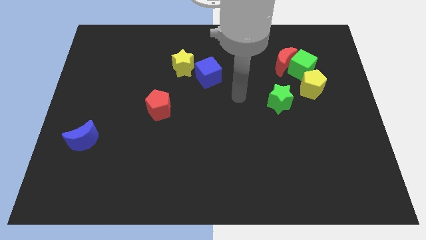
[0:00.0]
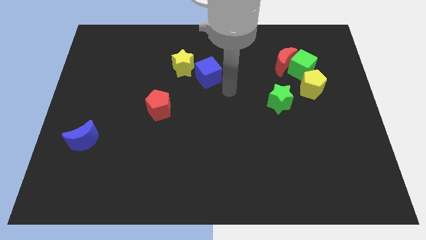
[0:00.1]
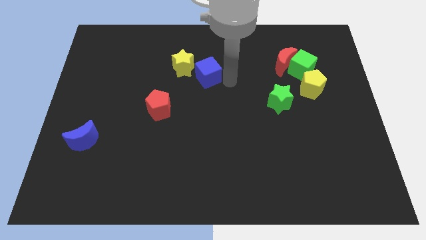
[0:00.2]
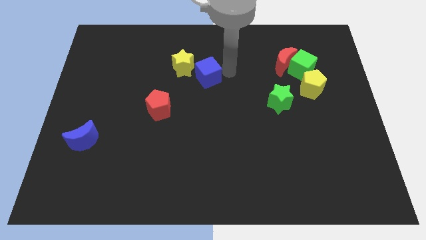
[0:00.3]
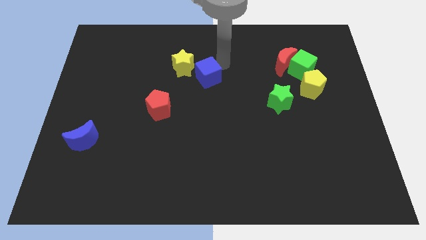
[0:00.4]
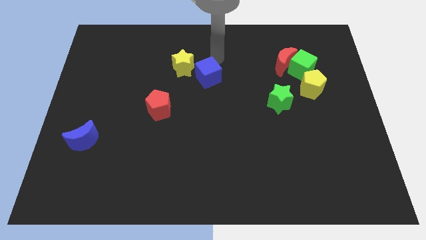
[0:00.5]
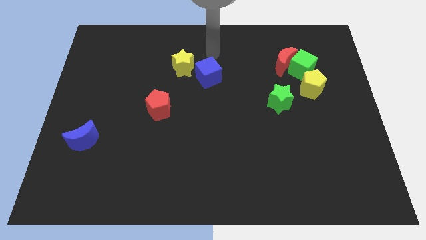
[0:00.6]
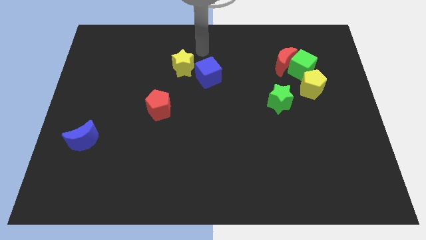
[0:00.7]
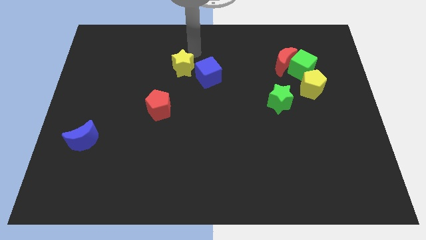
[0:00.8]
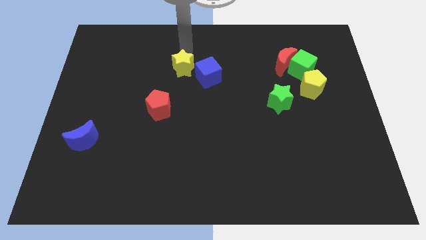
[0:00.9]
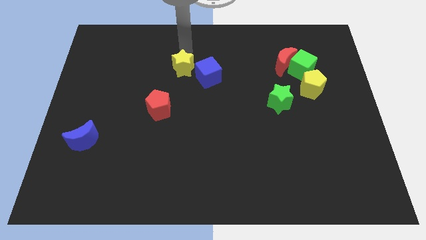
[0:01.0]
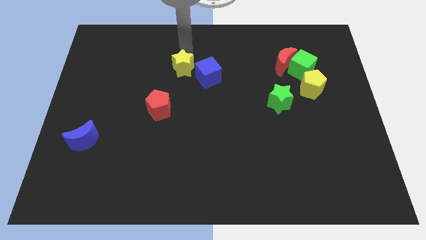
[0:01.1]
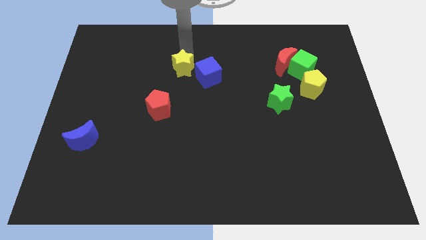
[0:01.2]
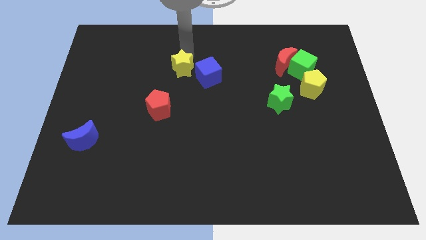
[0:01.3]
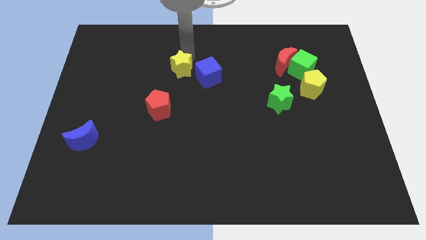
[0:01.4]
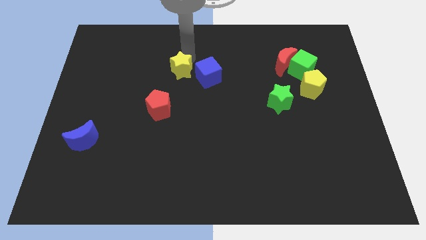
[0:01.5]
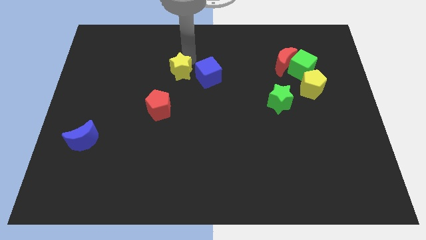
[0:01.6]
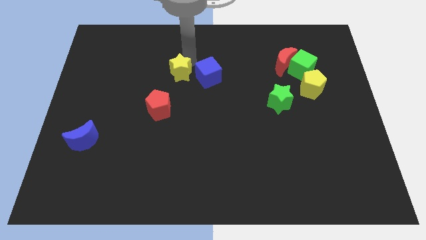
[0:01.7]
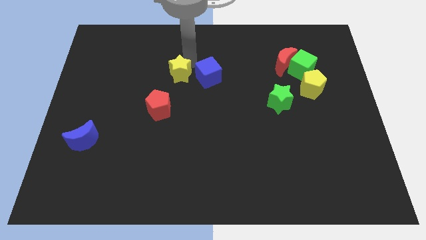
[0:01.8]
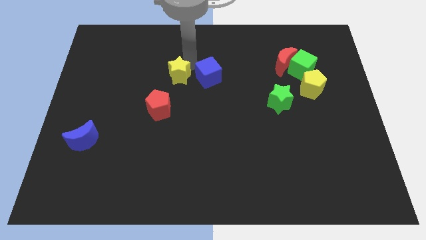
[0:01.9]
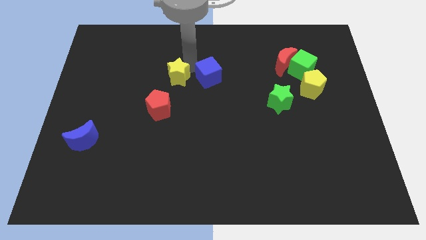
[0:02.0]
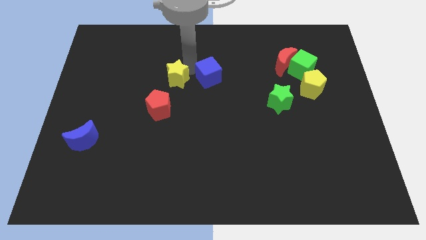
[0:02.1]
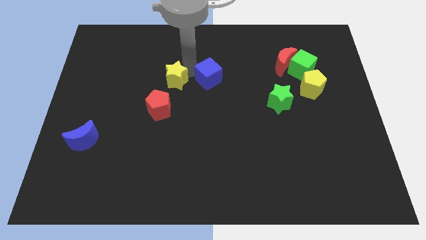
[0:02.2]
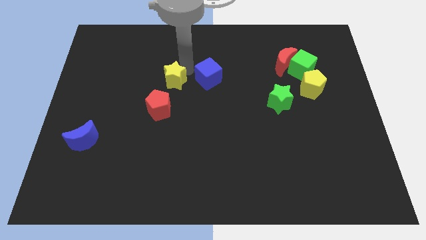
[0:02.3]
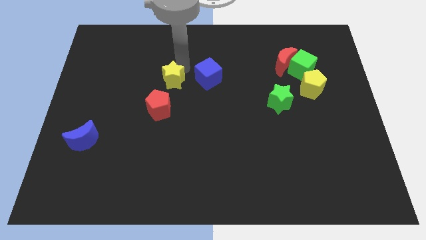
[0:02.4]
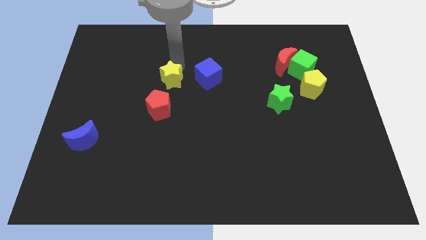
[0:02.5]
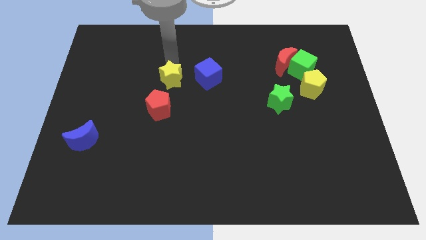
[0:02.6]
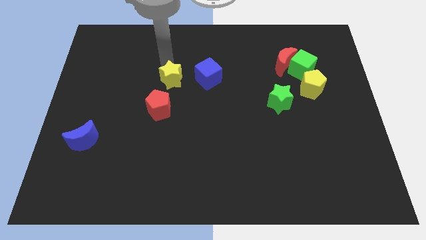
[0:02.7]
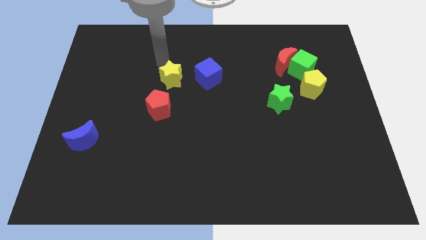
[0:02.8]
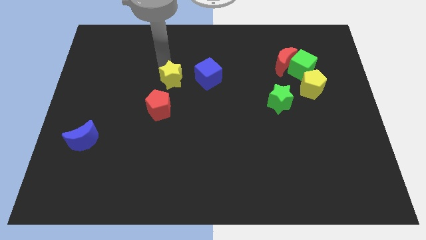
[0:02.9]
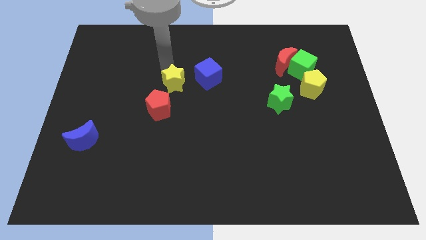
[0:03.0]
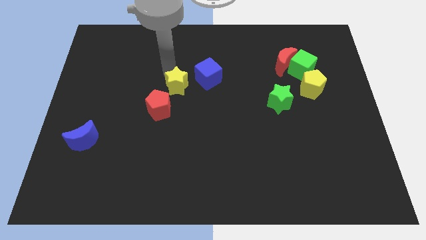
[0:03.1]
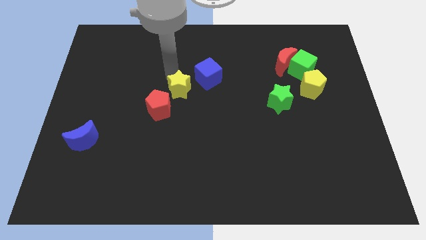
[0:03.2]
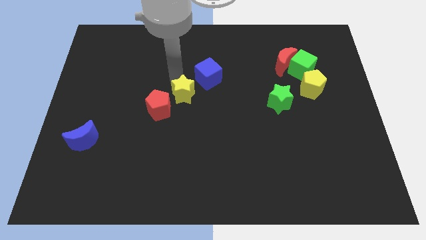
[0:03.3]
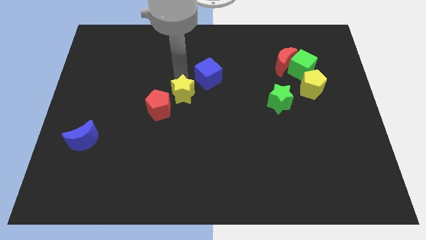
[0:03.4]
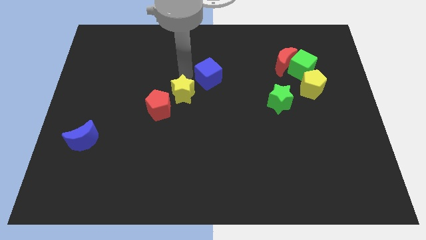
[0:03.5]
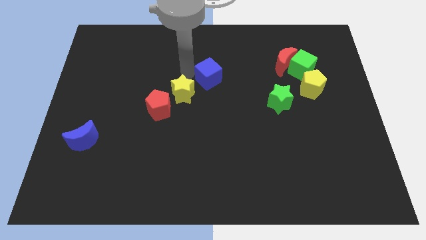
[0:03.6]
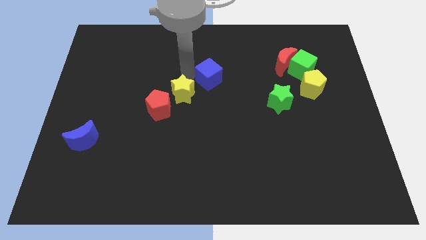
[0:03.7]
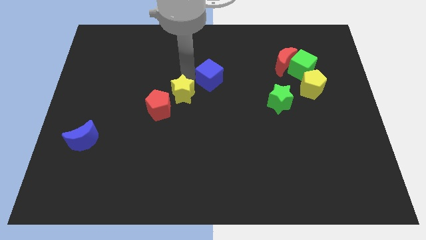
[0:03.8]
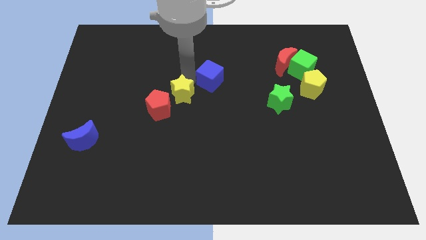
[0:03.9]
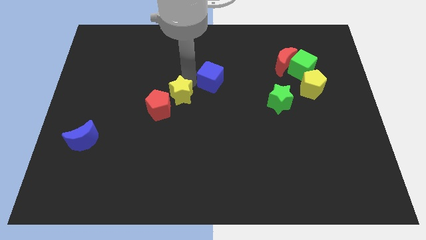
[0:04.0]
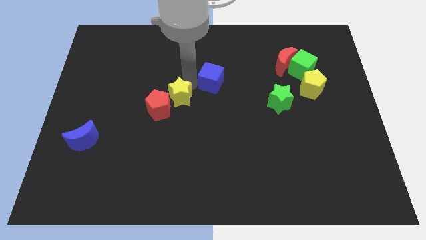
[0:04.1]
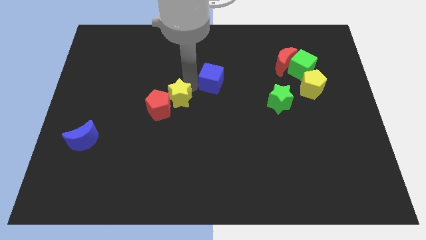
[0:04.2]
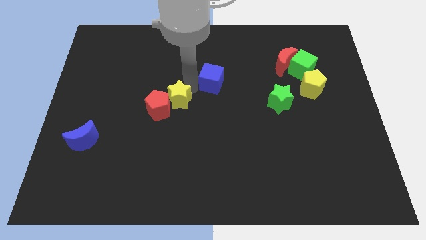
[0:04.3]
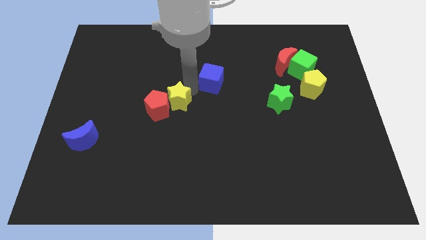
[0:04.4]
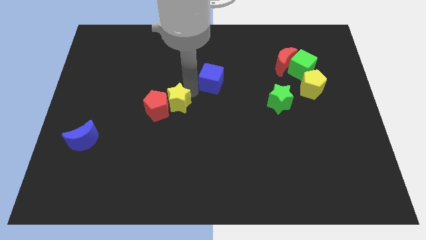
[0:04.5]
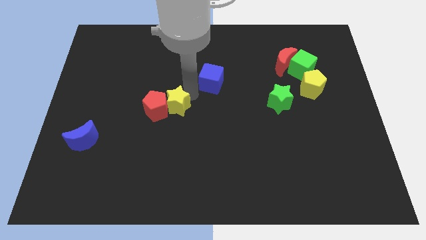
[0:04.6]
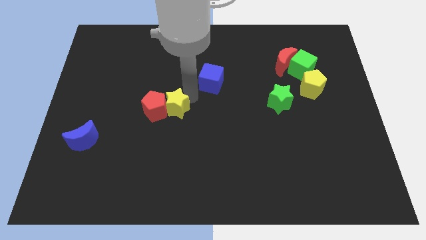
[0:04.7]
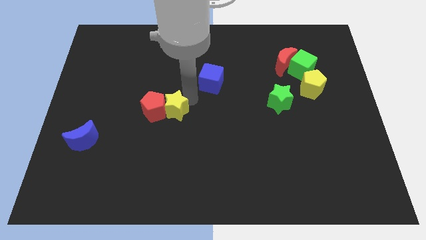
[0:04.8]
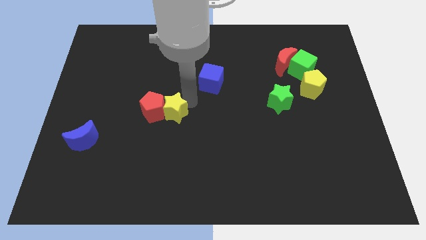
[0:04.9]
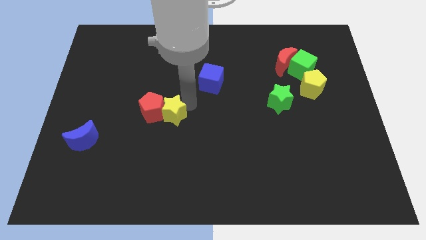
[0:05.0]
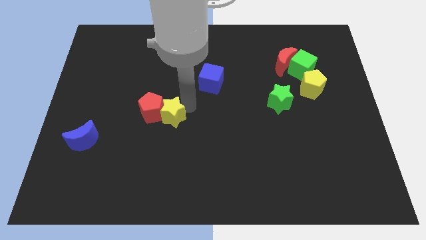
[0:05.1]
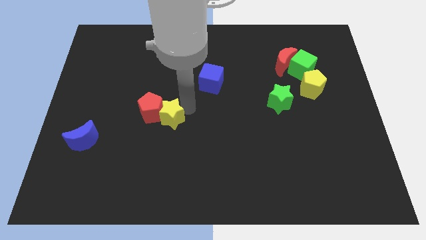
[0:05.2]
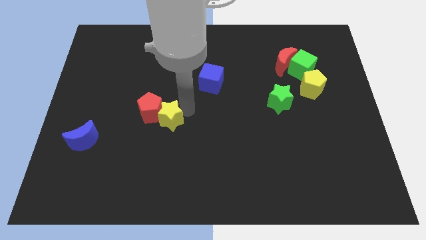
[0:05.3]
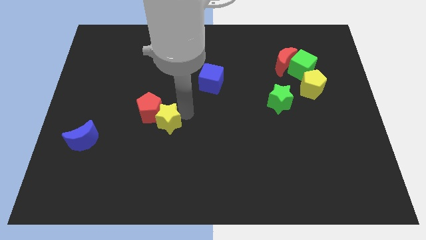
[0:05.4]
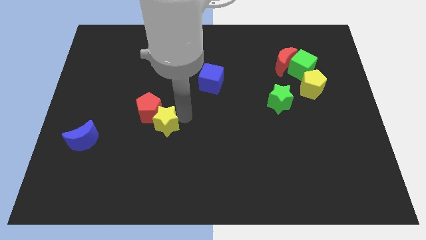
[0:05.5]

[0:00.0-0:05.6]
push the yellow star to the bottom of the red pentagon

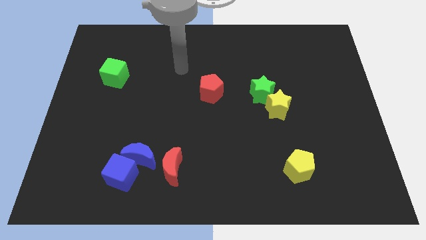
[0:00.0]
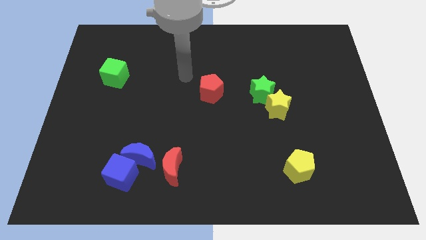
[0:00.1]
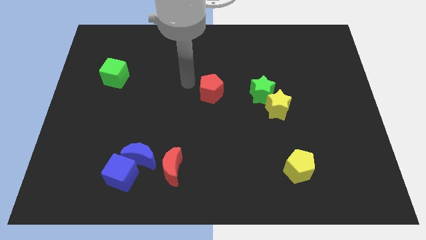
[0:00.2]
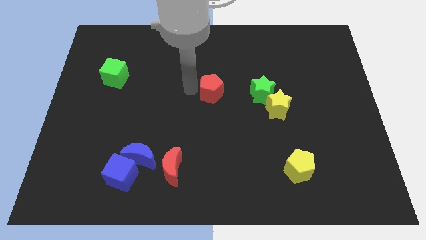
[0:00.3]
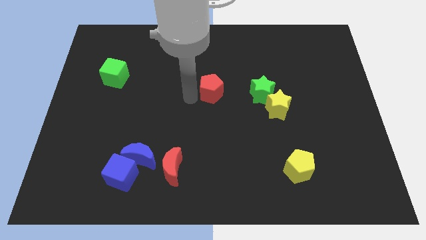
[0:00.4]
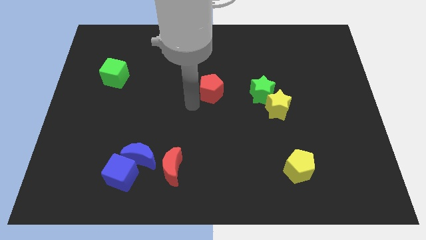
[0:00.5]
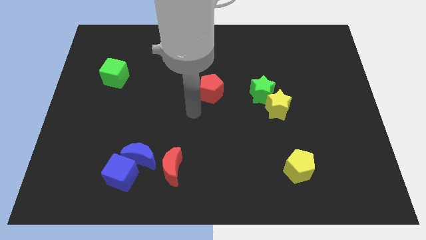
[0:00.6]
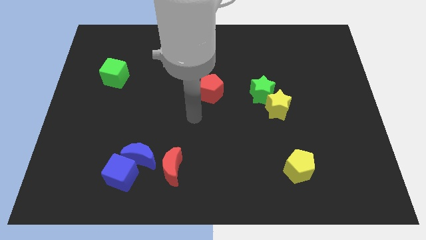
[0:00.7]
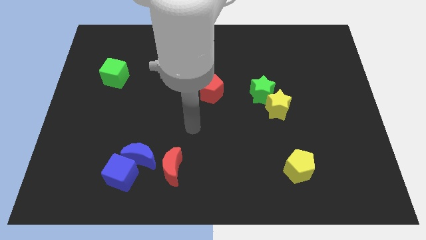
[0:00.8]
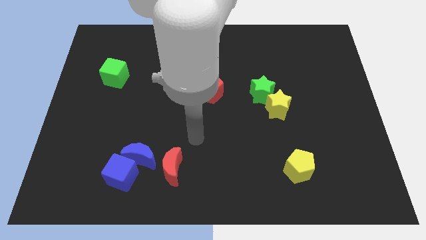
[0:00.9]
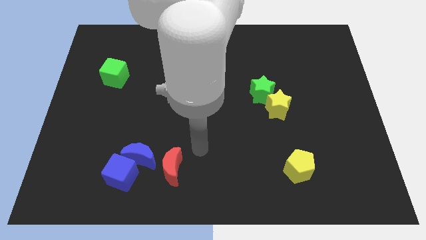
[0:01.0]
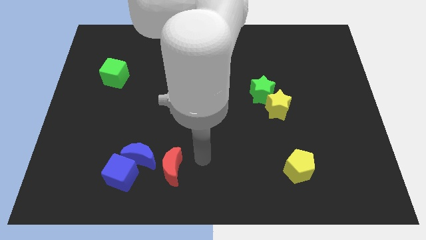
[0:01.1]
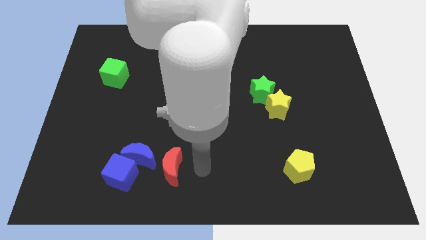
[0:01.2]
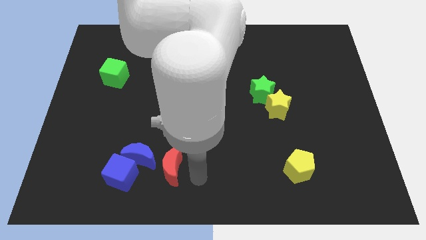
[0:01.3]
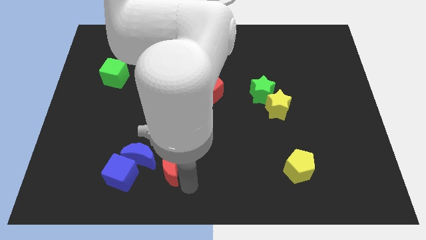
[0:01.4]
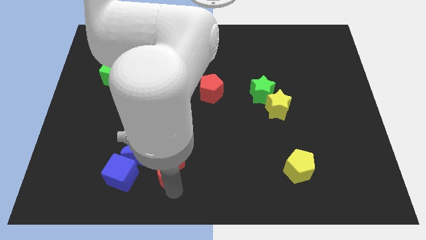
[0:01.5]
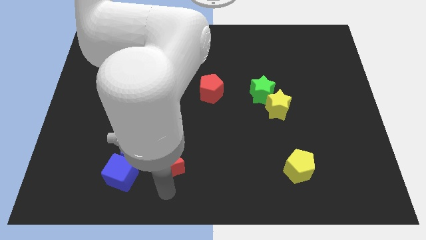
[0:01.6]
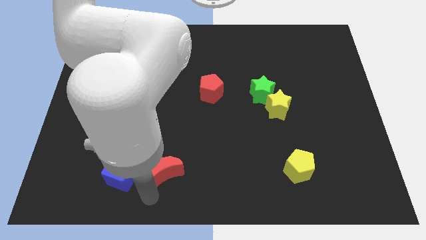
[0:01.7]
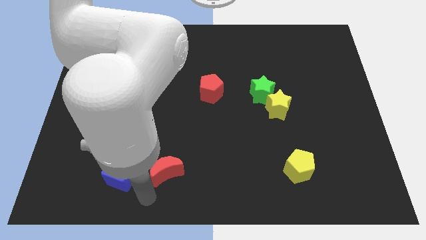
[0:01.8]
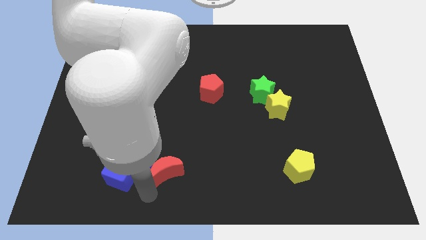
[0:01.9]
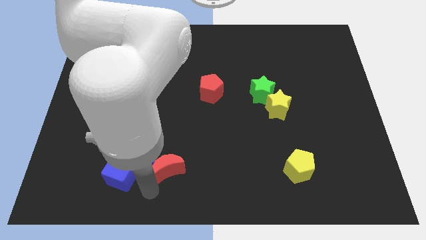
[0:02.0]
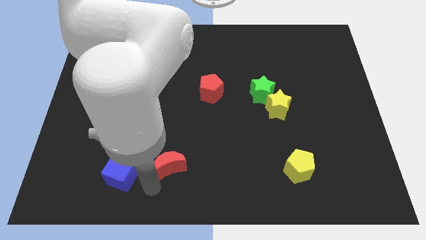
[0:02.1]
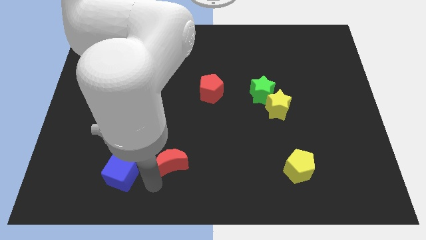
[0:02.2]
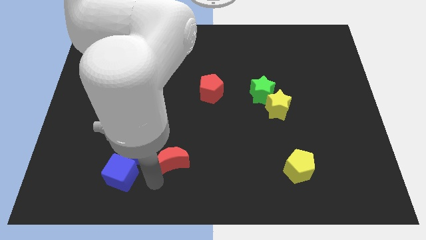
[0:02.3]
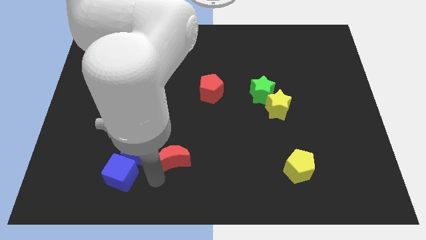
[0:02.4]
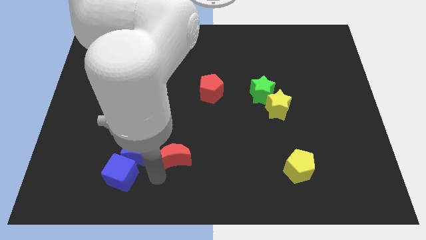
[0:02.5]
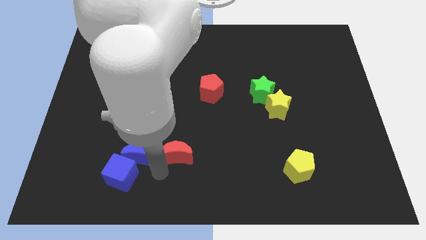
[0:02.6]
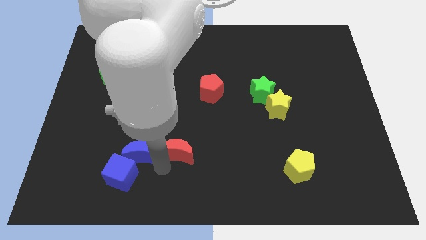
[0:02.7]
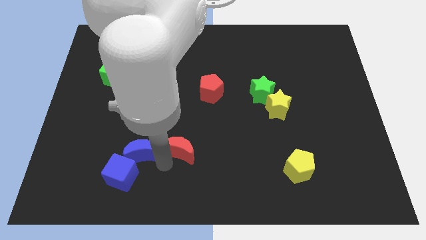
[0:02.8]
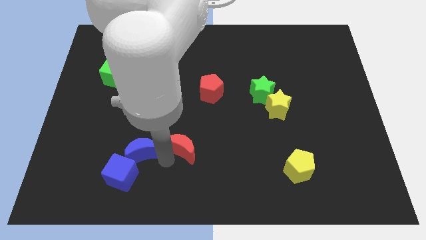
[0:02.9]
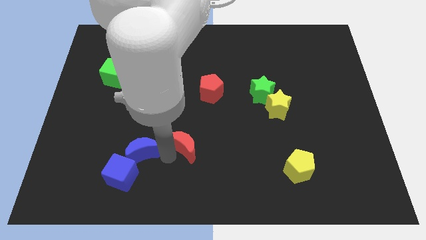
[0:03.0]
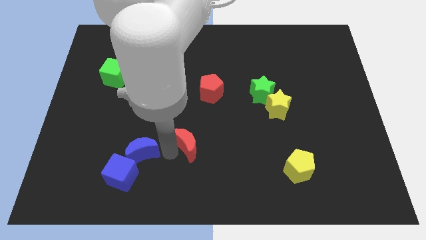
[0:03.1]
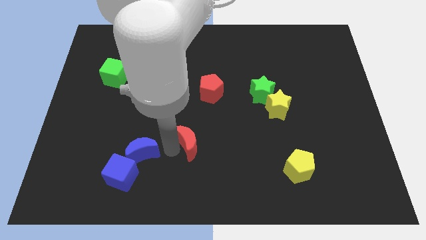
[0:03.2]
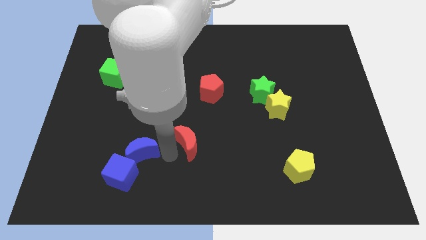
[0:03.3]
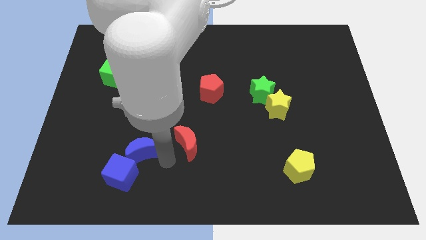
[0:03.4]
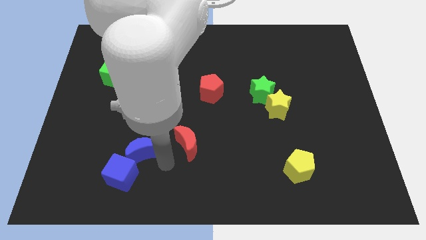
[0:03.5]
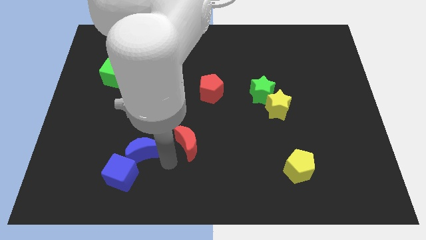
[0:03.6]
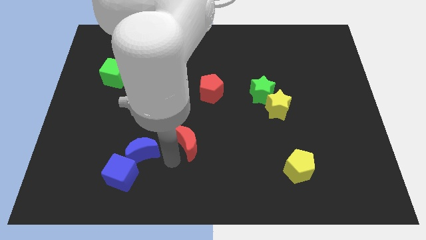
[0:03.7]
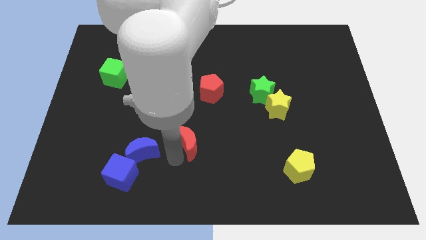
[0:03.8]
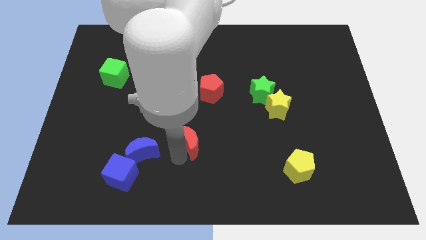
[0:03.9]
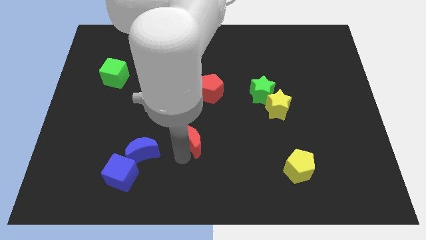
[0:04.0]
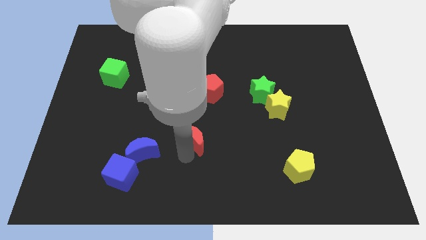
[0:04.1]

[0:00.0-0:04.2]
move the red moon below the red pentagon
